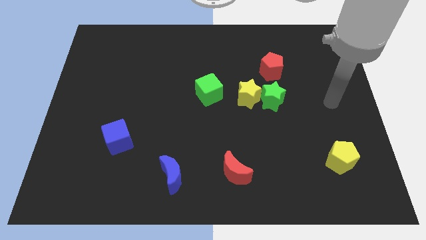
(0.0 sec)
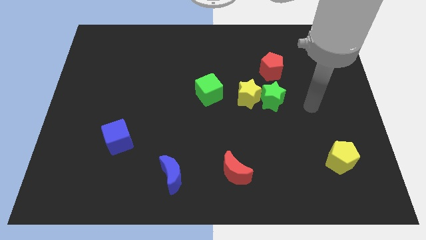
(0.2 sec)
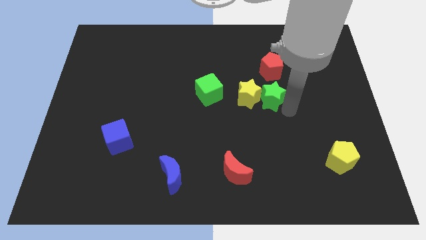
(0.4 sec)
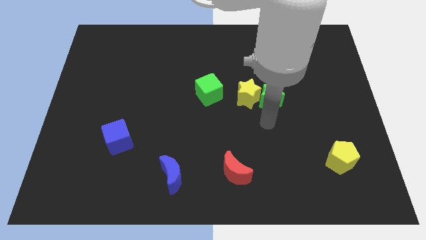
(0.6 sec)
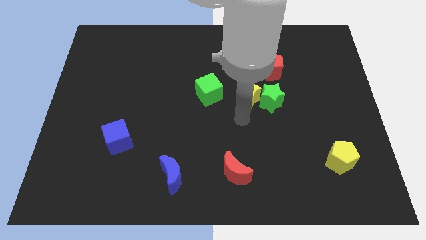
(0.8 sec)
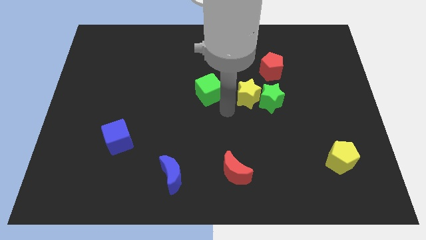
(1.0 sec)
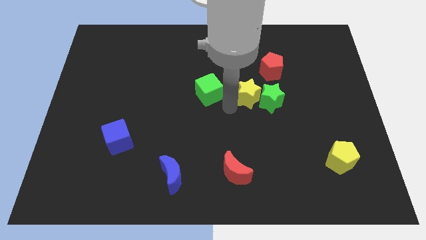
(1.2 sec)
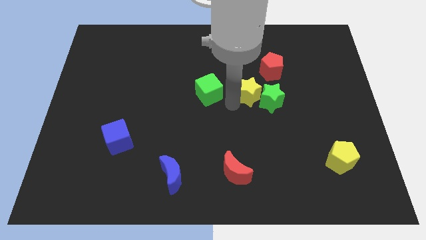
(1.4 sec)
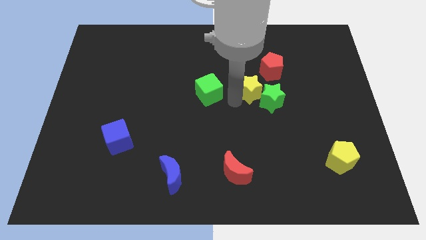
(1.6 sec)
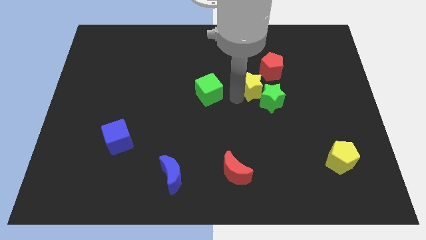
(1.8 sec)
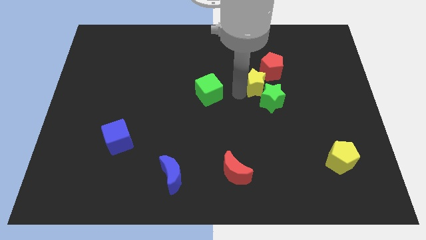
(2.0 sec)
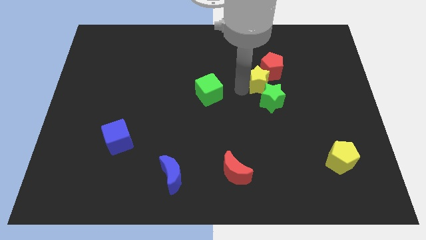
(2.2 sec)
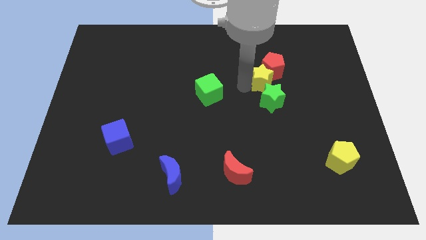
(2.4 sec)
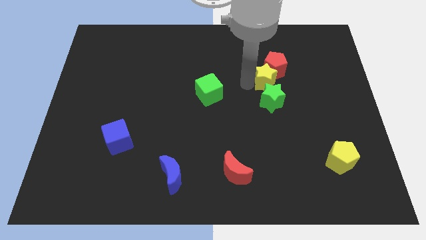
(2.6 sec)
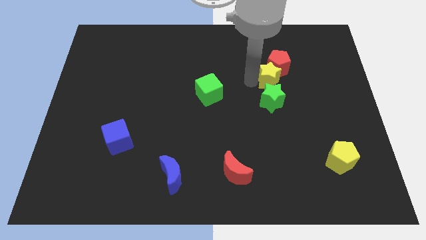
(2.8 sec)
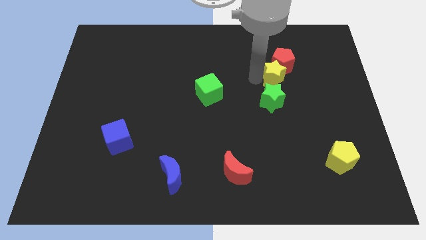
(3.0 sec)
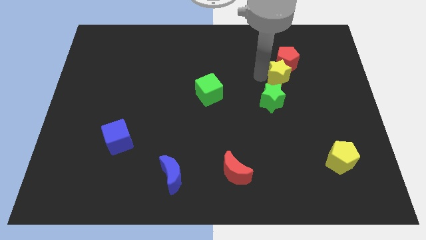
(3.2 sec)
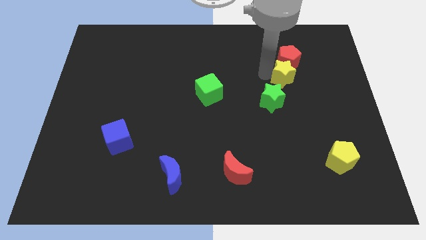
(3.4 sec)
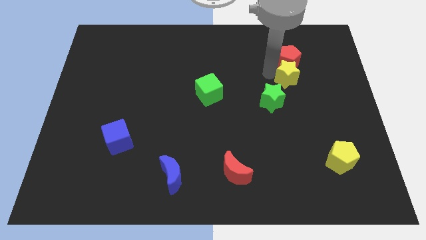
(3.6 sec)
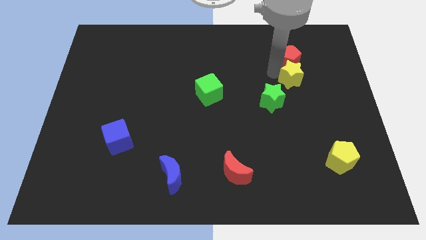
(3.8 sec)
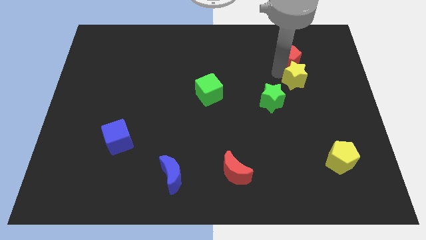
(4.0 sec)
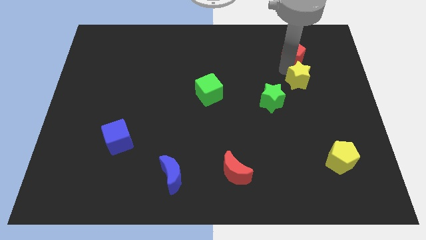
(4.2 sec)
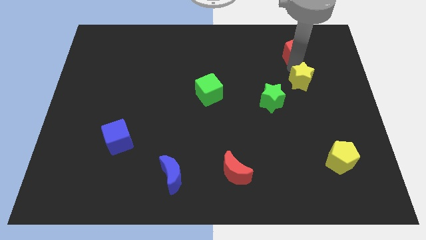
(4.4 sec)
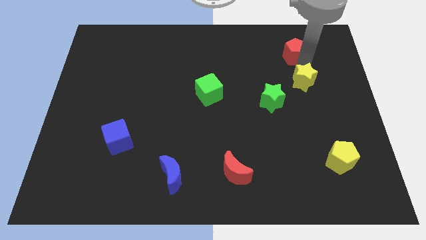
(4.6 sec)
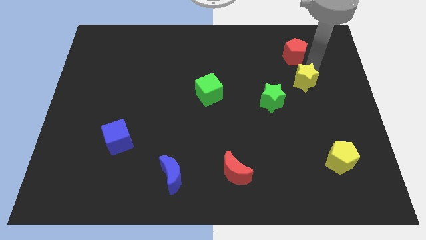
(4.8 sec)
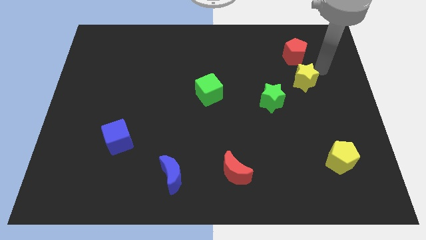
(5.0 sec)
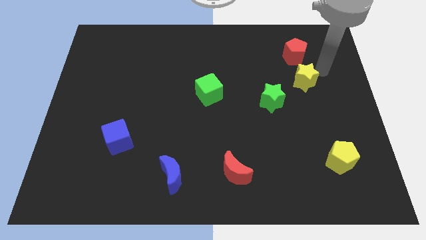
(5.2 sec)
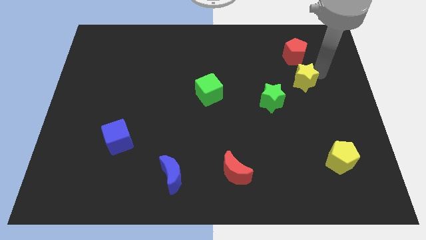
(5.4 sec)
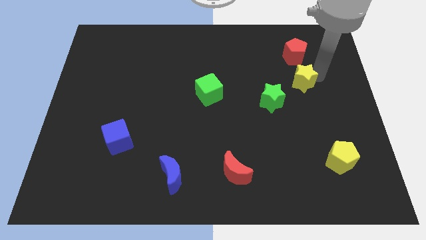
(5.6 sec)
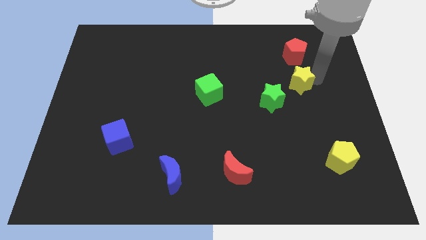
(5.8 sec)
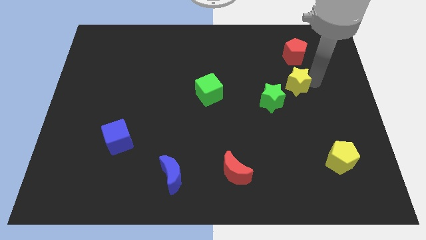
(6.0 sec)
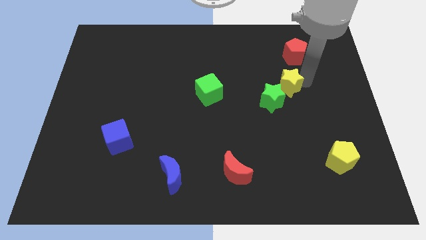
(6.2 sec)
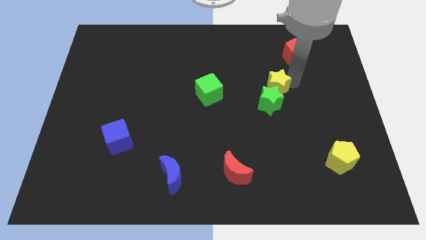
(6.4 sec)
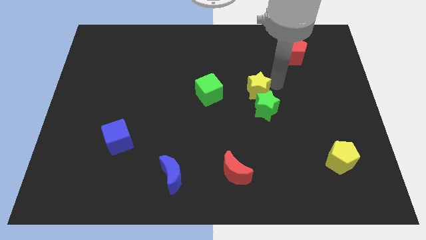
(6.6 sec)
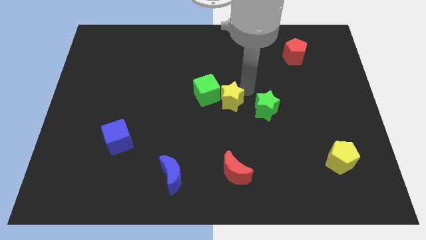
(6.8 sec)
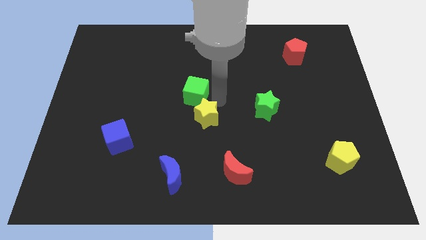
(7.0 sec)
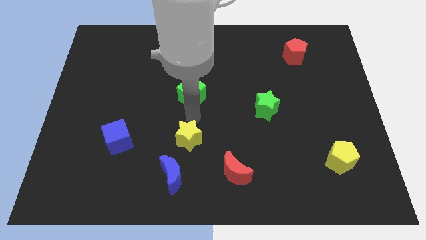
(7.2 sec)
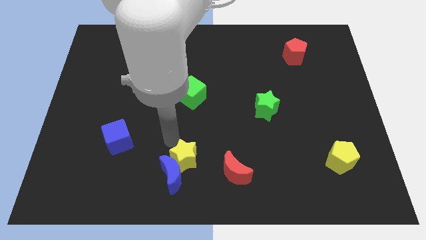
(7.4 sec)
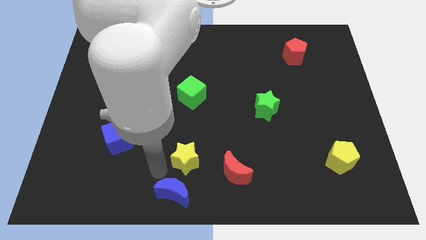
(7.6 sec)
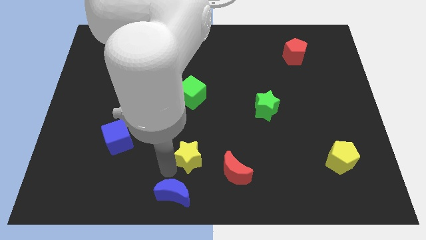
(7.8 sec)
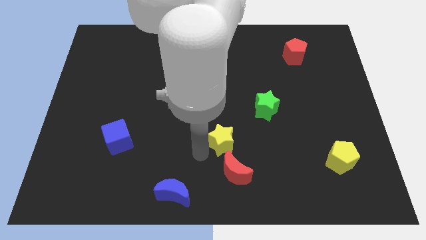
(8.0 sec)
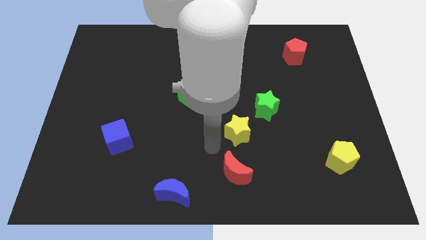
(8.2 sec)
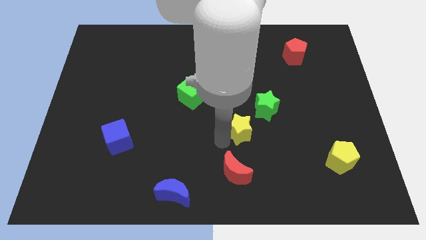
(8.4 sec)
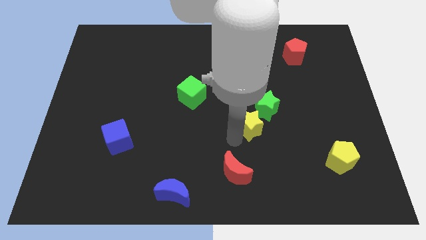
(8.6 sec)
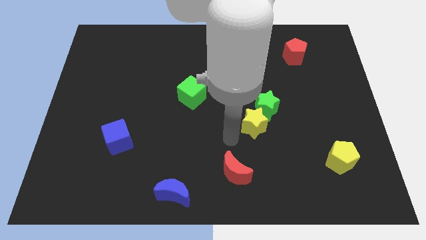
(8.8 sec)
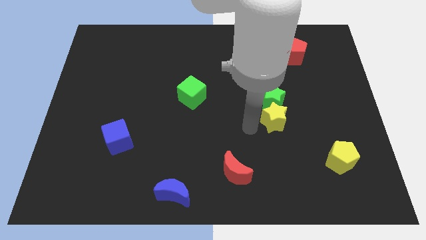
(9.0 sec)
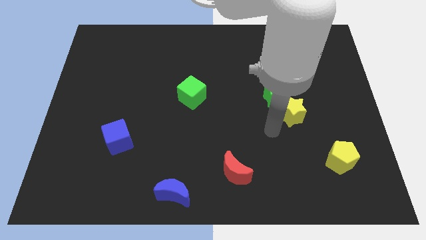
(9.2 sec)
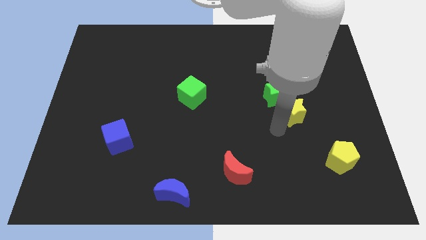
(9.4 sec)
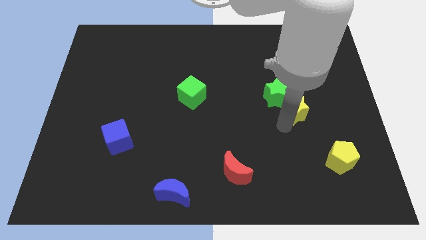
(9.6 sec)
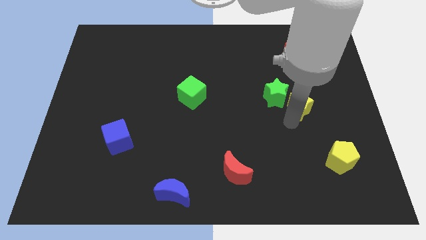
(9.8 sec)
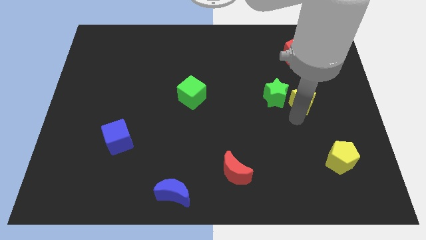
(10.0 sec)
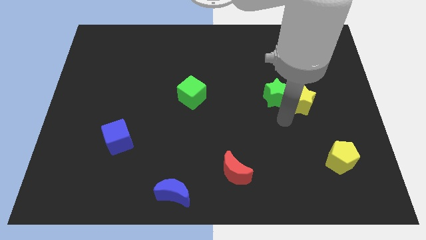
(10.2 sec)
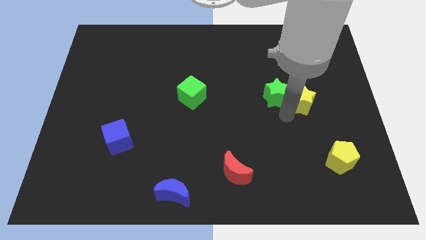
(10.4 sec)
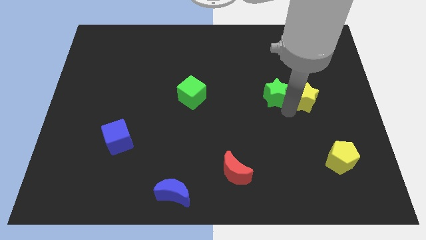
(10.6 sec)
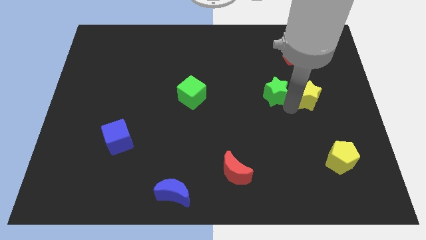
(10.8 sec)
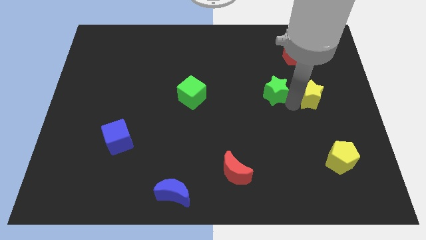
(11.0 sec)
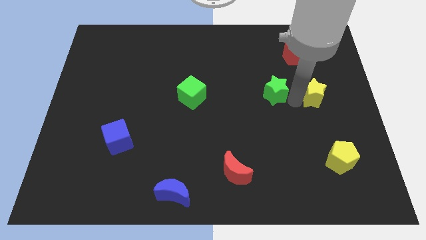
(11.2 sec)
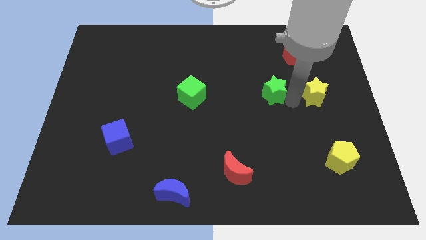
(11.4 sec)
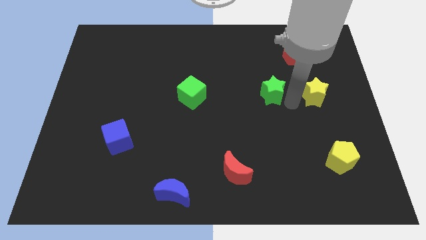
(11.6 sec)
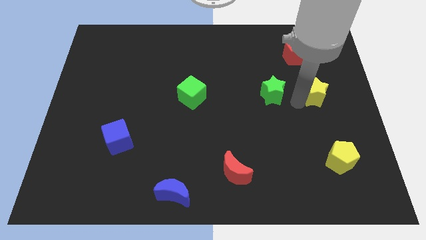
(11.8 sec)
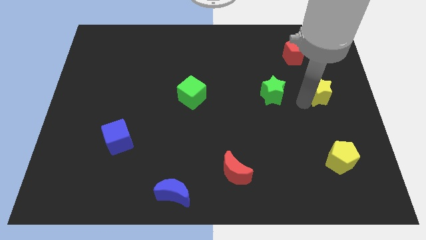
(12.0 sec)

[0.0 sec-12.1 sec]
push the yellow star to the right side
